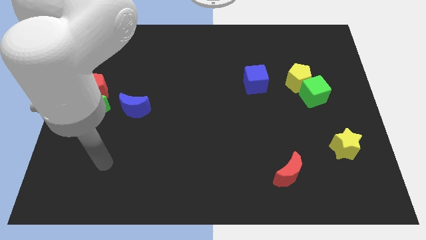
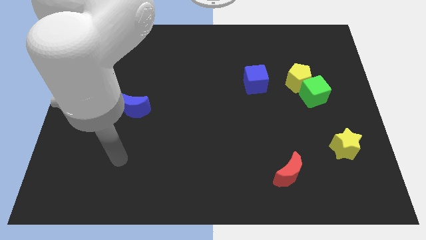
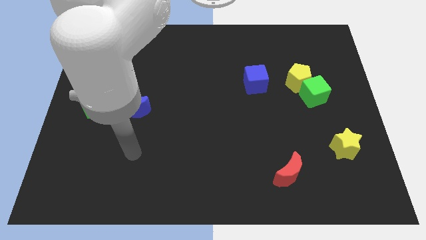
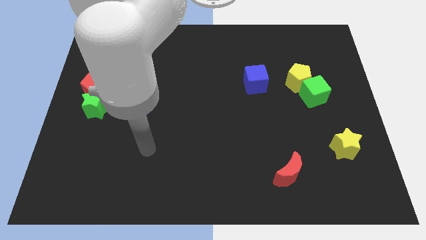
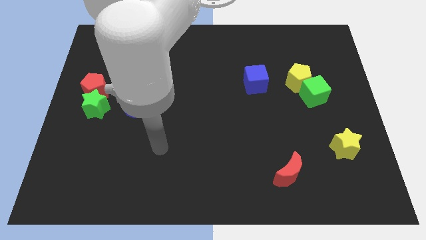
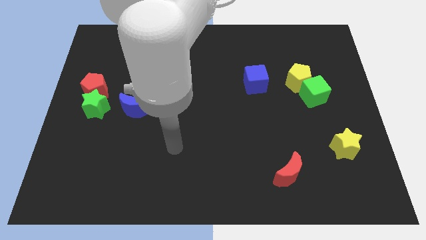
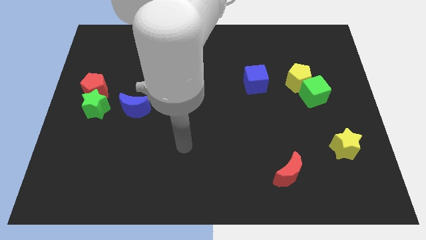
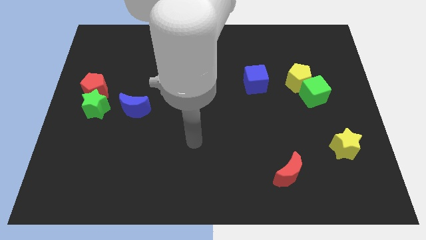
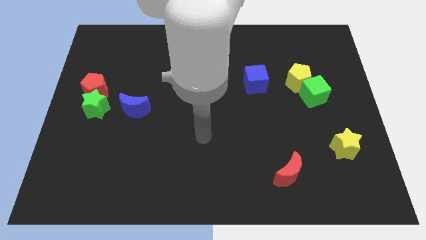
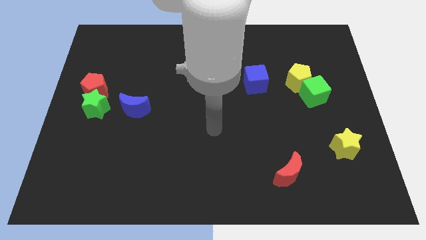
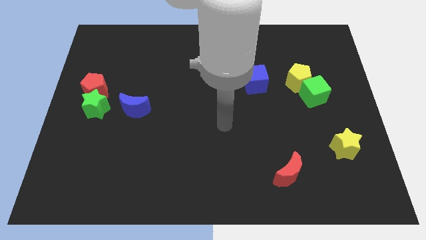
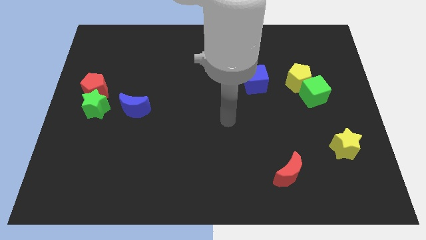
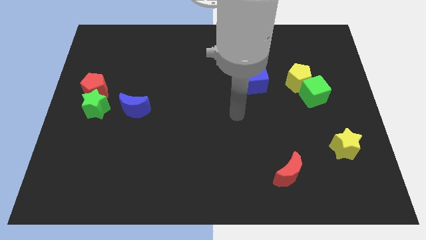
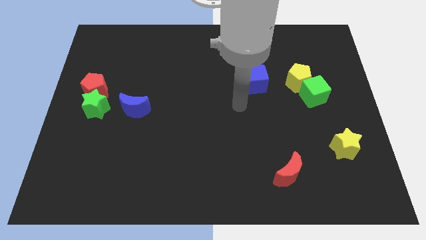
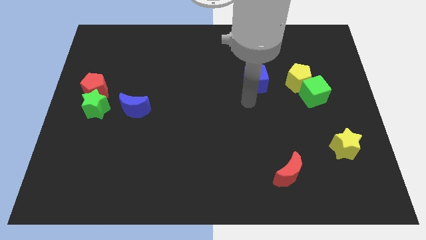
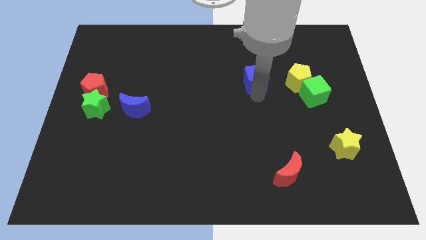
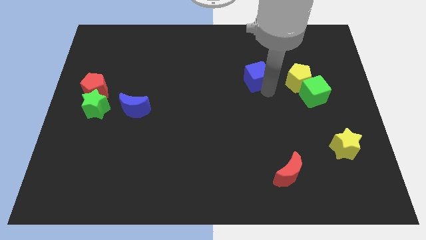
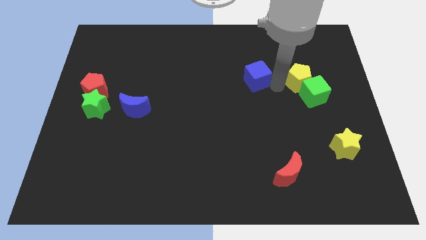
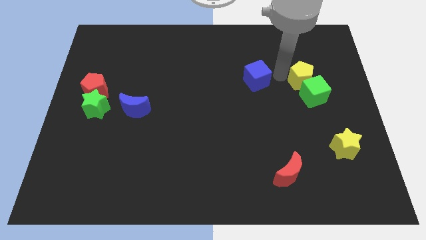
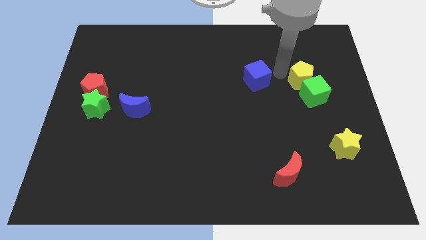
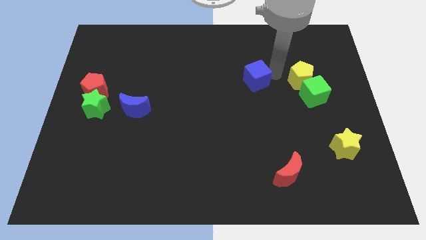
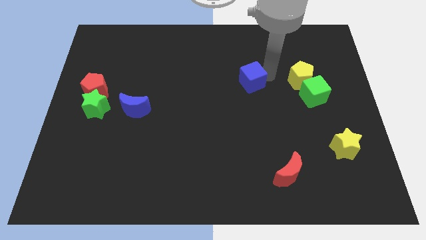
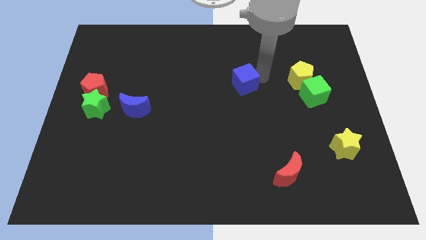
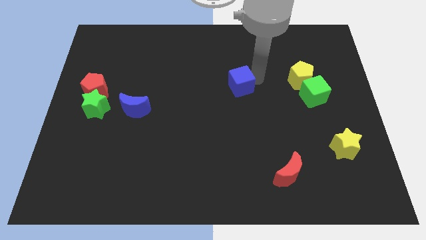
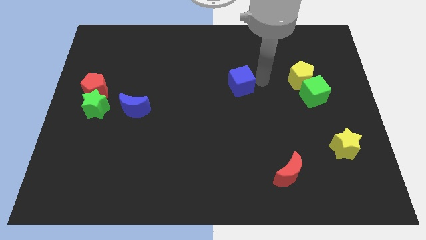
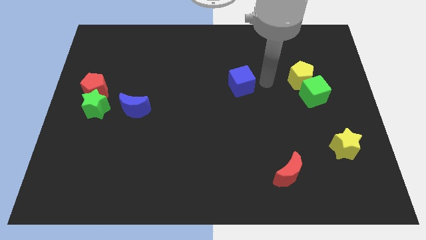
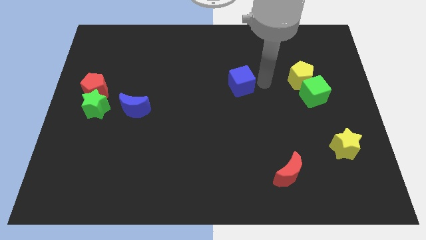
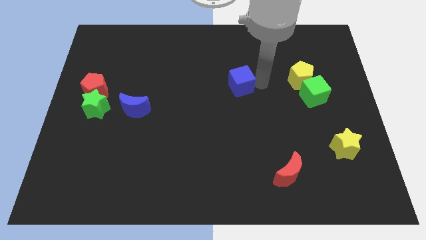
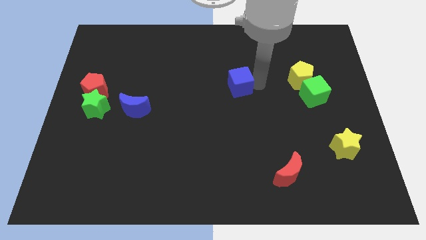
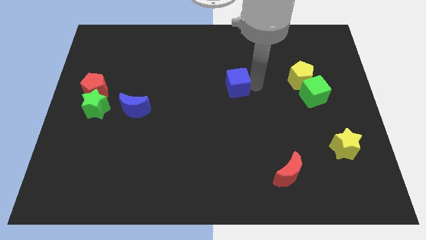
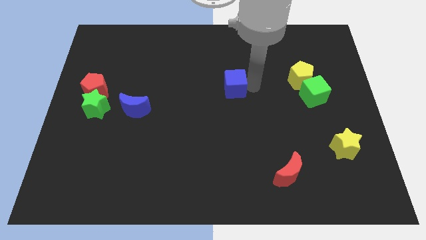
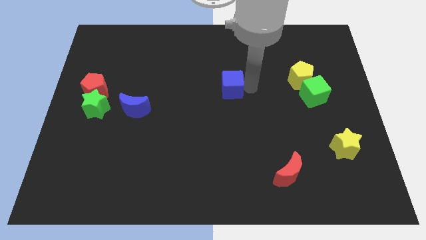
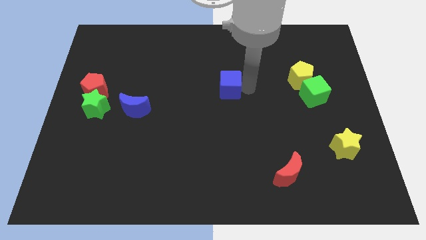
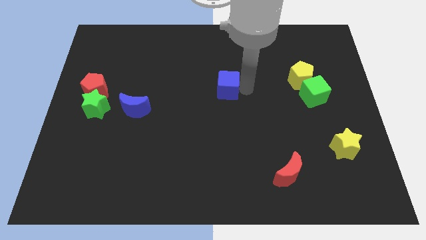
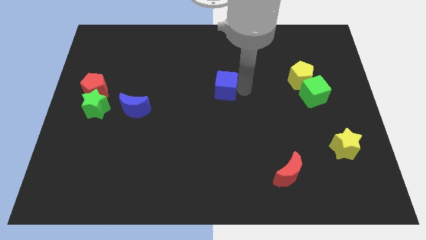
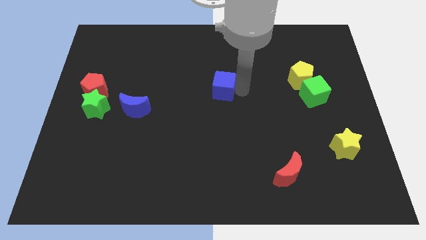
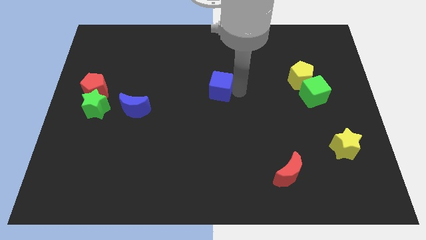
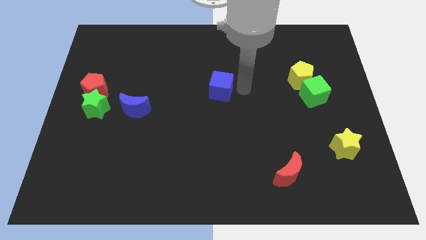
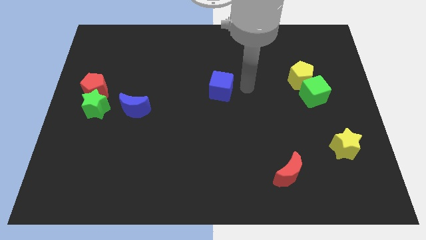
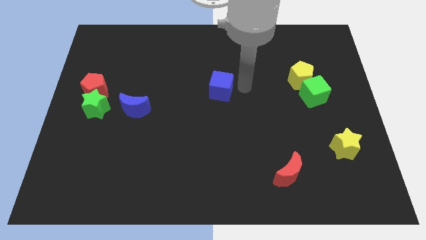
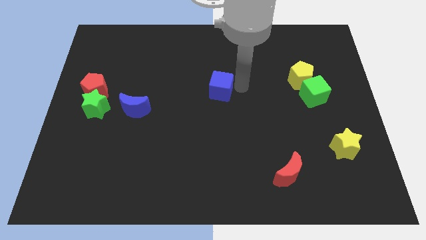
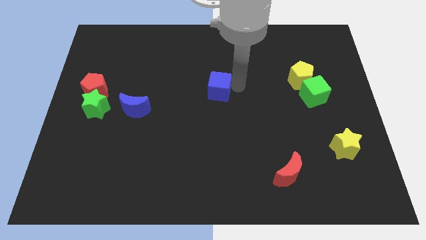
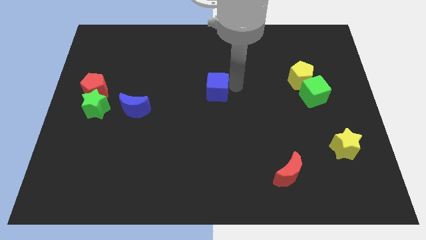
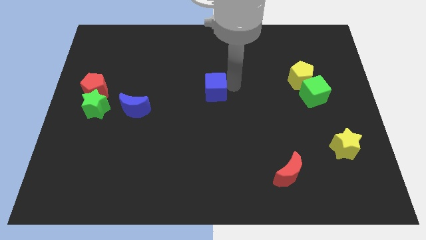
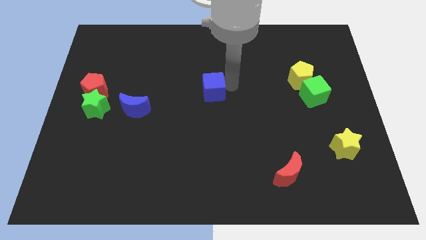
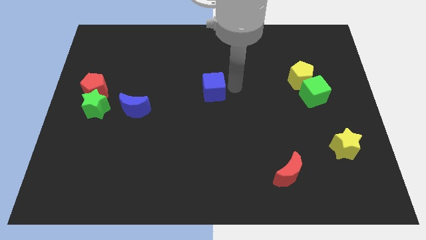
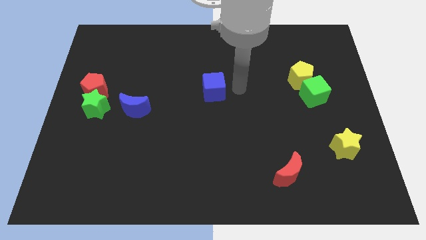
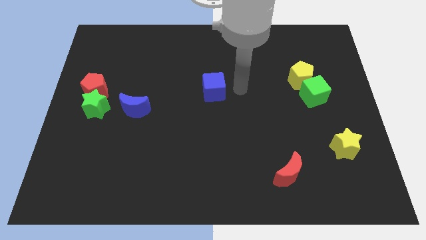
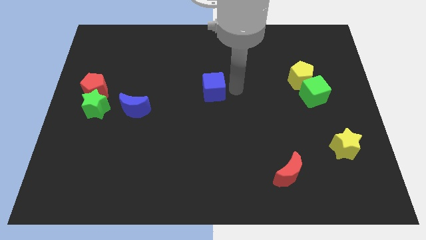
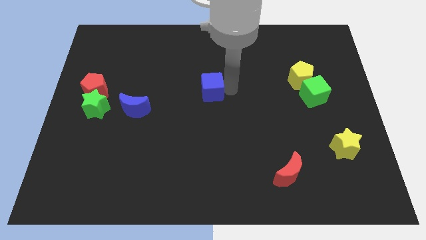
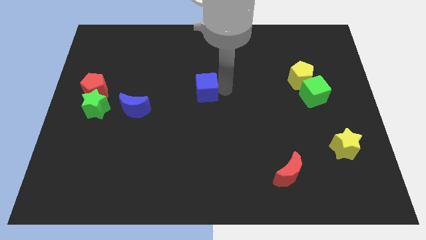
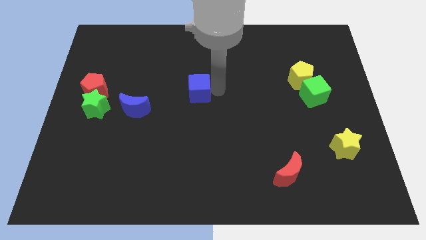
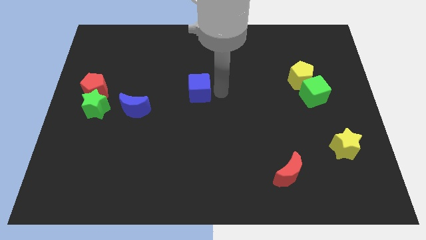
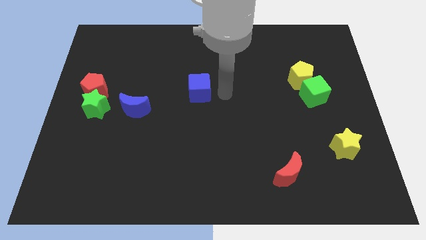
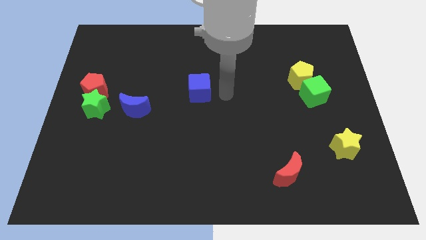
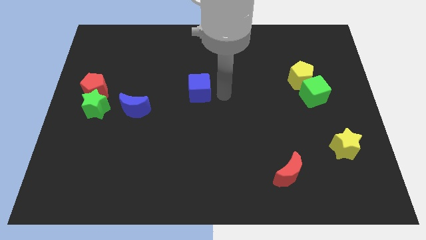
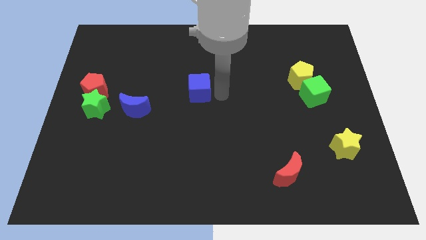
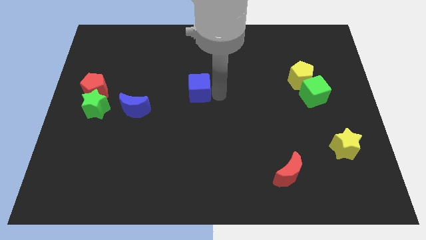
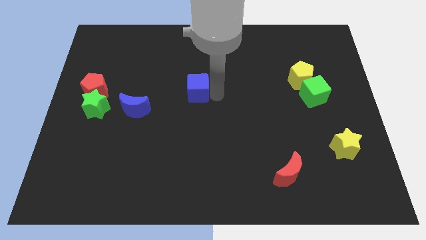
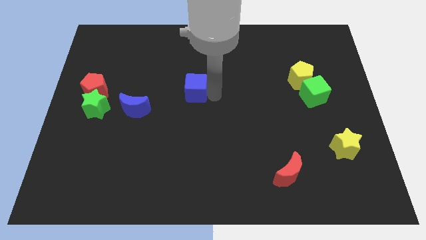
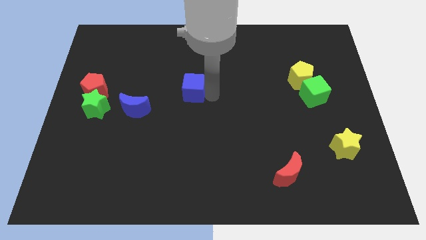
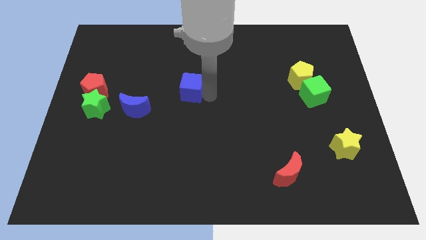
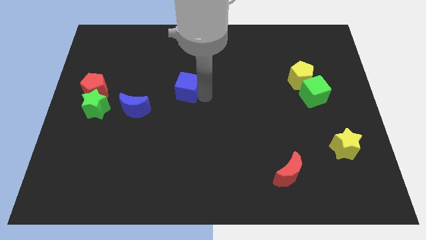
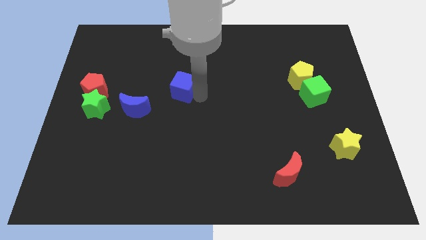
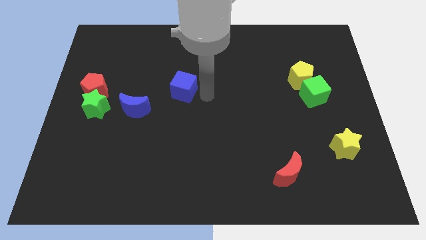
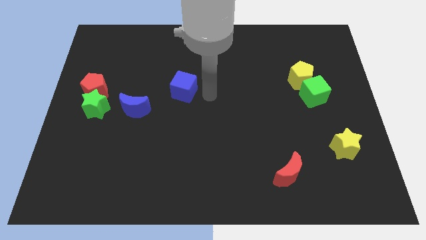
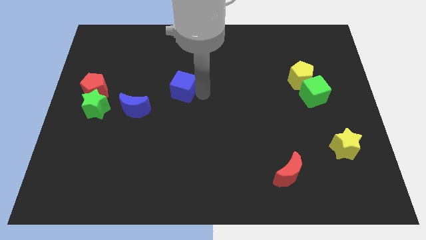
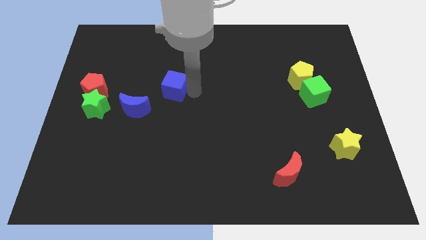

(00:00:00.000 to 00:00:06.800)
push the blue cube left

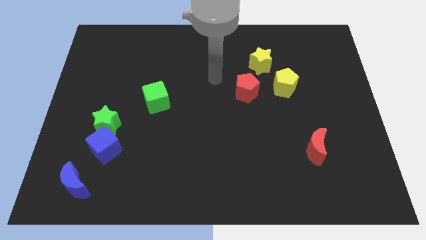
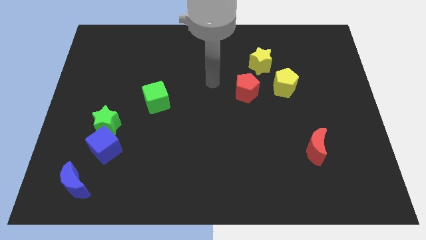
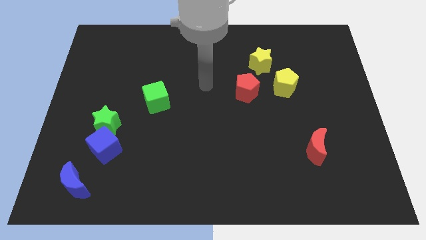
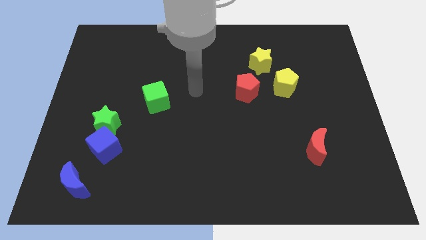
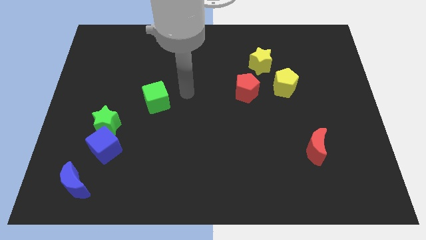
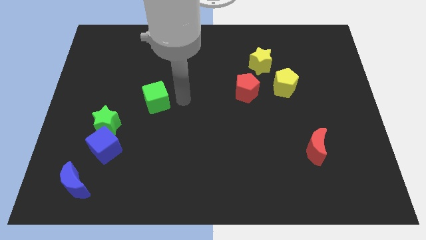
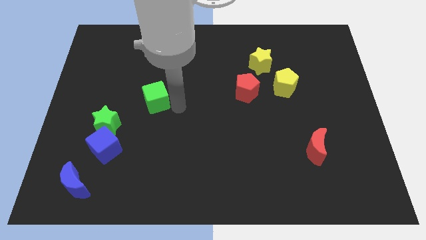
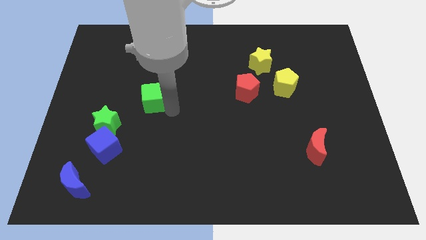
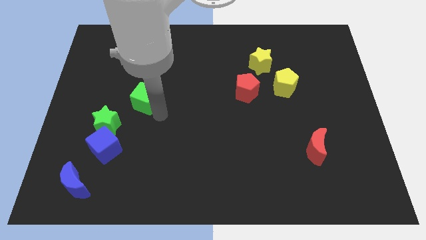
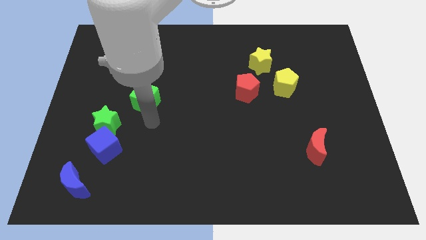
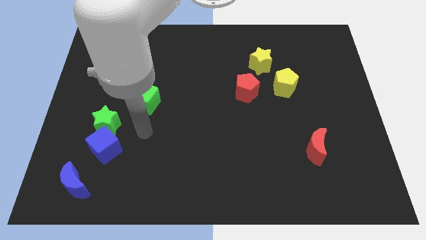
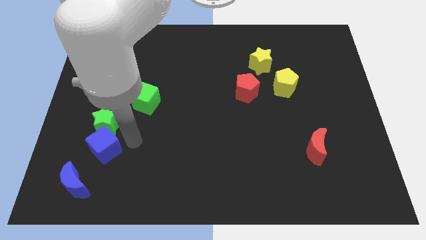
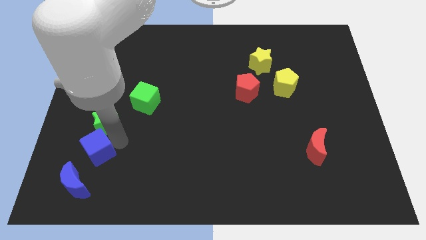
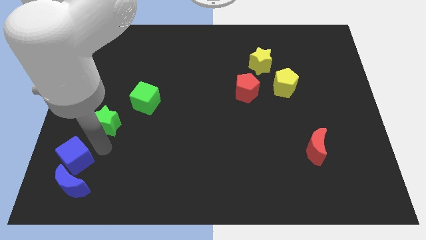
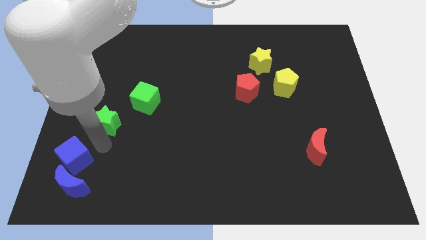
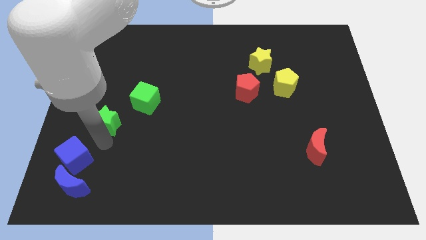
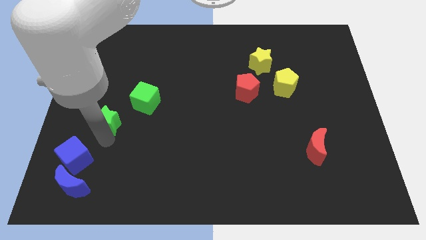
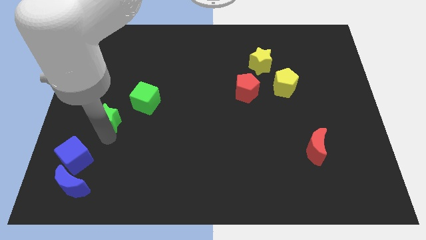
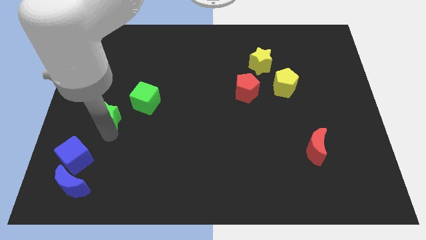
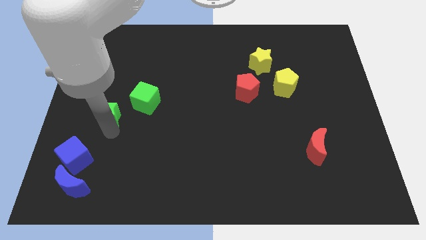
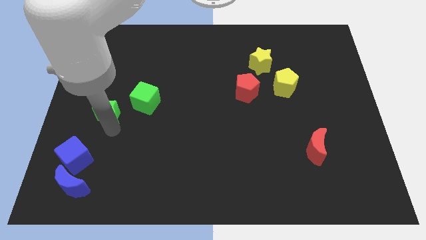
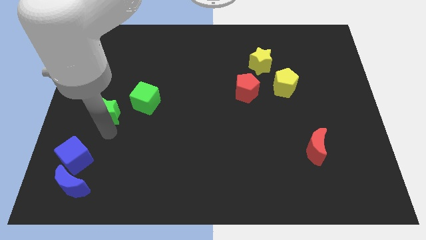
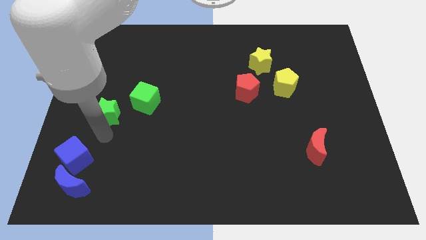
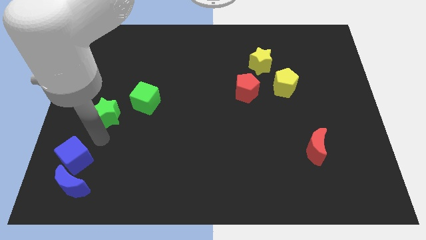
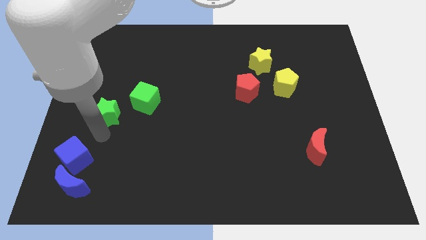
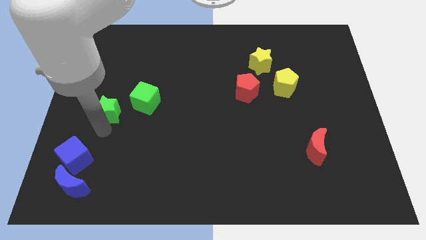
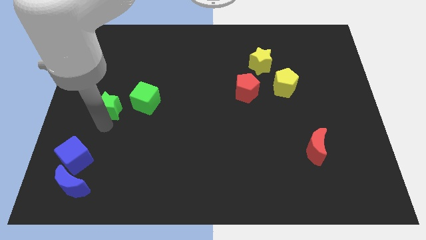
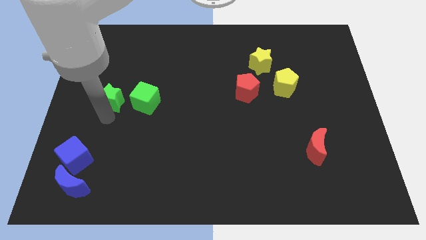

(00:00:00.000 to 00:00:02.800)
slide the green star slightly up
